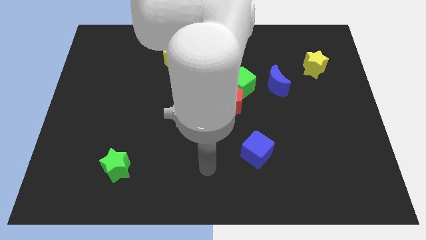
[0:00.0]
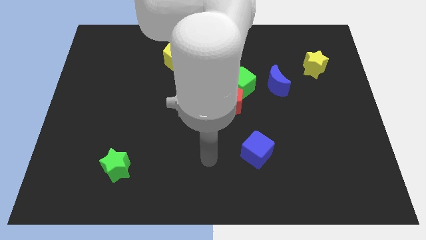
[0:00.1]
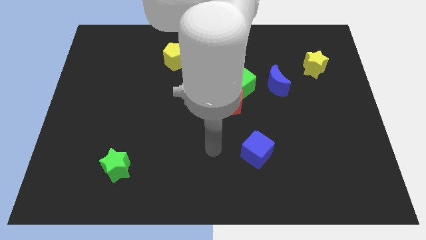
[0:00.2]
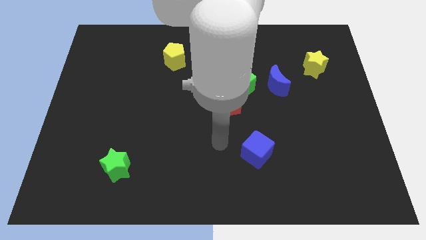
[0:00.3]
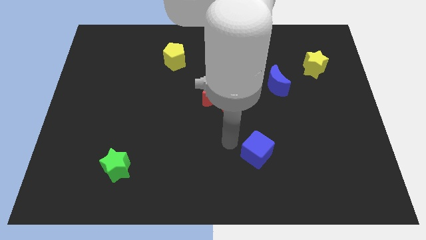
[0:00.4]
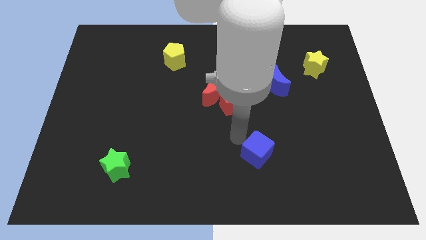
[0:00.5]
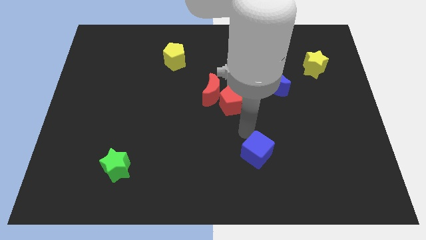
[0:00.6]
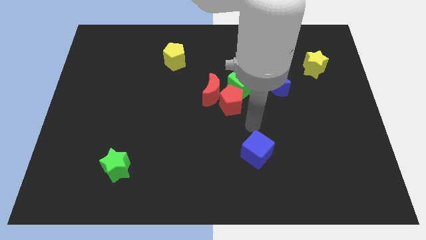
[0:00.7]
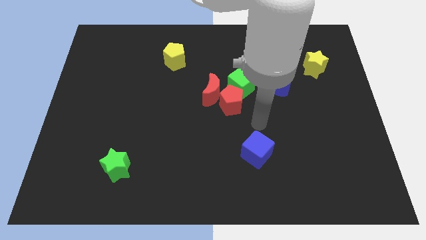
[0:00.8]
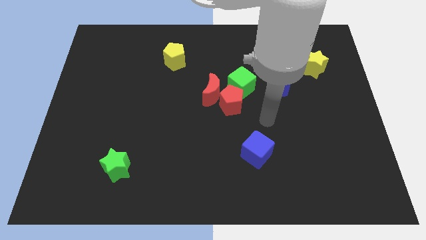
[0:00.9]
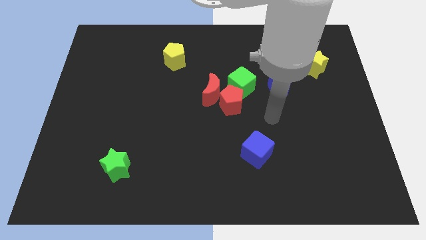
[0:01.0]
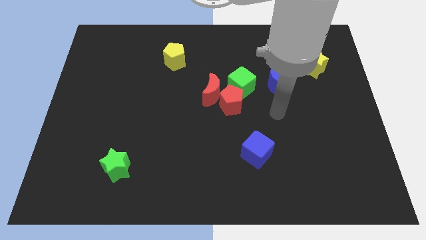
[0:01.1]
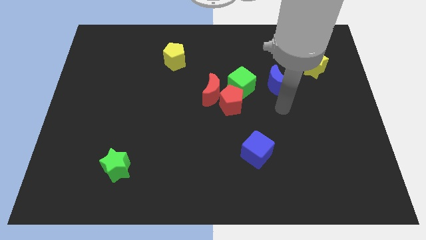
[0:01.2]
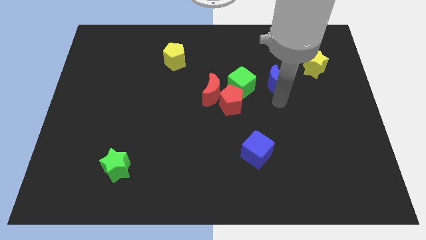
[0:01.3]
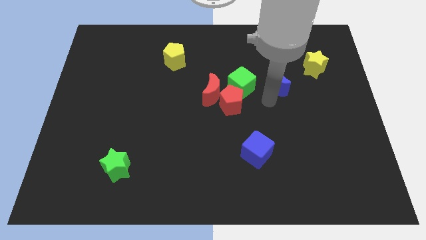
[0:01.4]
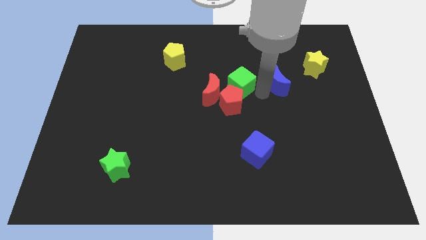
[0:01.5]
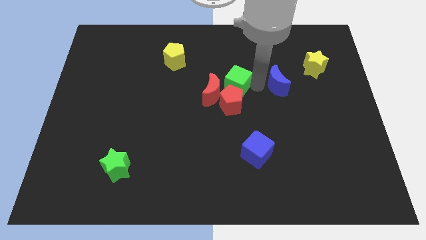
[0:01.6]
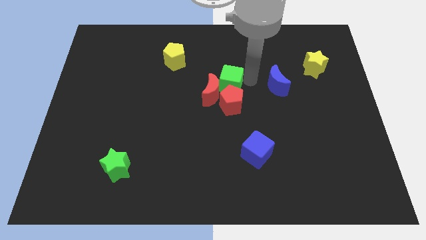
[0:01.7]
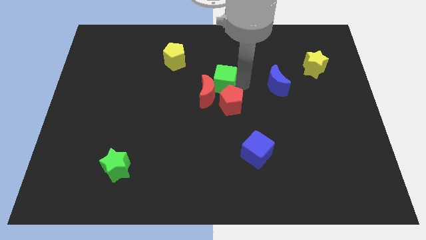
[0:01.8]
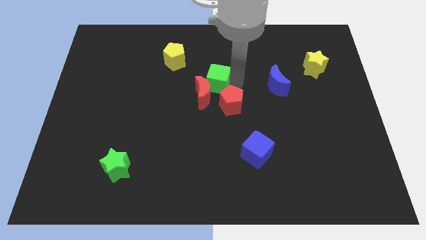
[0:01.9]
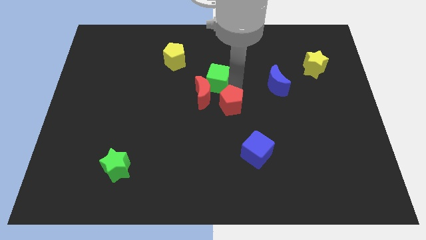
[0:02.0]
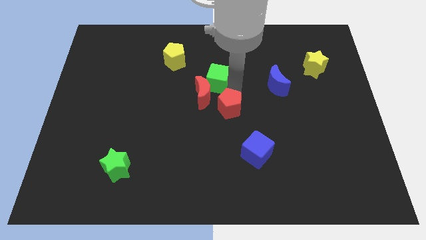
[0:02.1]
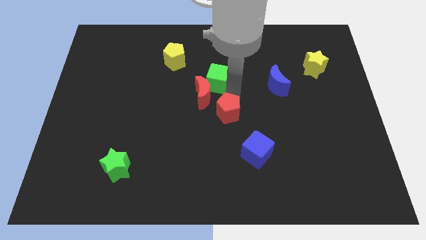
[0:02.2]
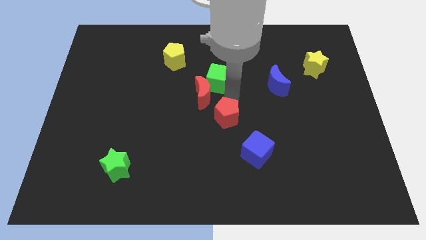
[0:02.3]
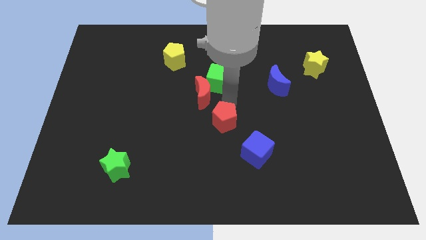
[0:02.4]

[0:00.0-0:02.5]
separate the red pentagon from the red moon and green cube

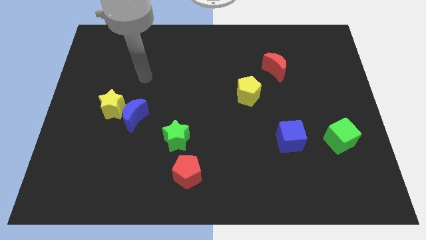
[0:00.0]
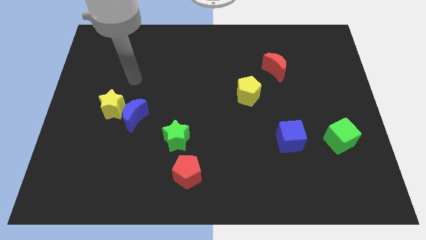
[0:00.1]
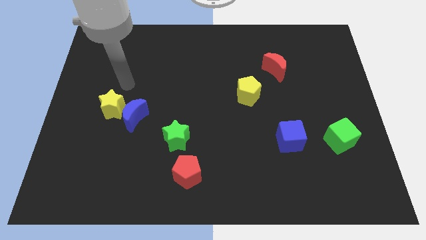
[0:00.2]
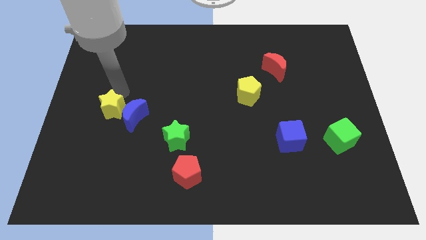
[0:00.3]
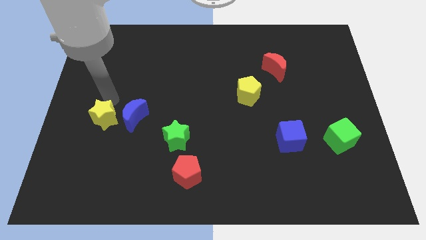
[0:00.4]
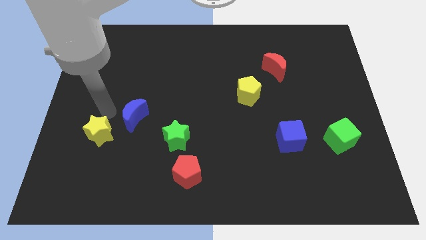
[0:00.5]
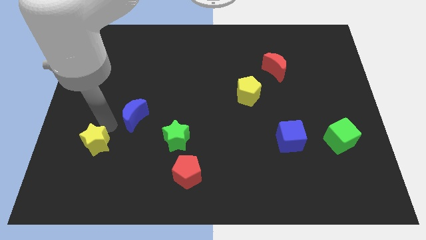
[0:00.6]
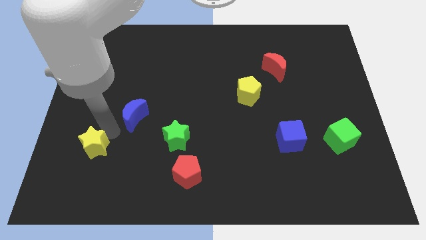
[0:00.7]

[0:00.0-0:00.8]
pull the blue moon apart from the yellow star

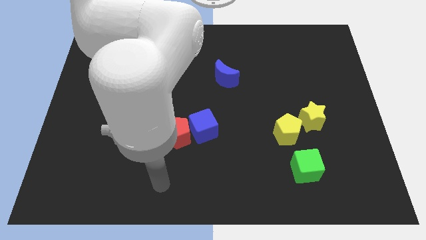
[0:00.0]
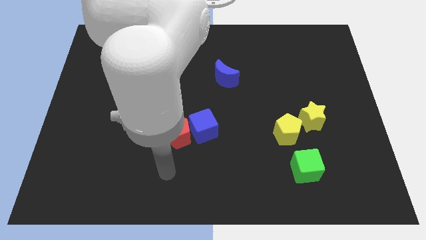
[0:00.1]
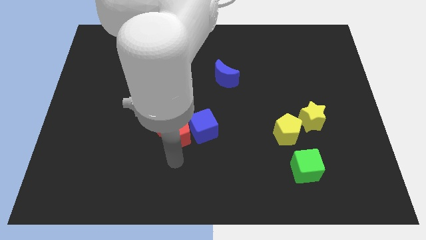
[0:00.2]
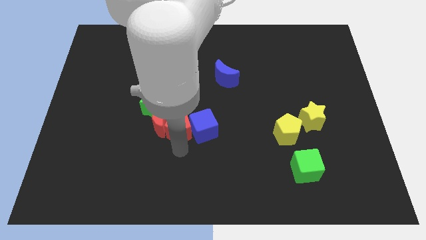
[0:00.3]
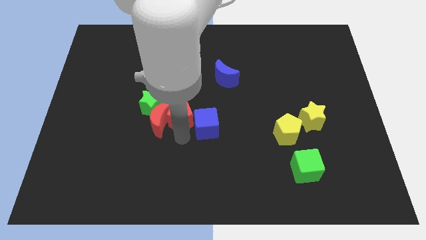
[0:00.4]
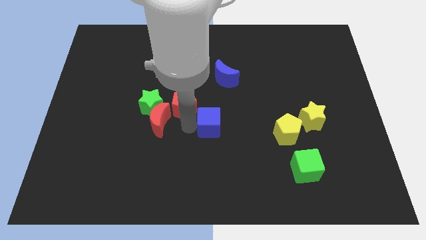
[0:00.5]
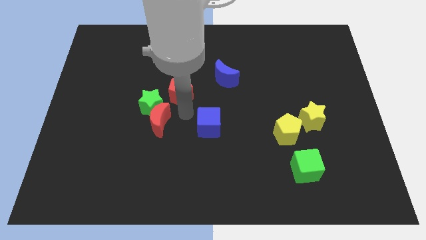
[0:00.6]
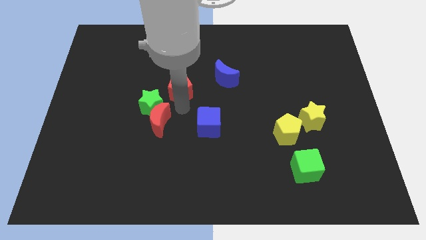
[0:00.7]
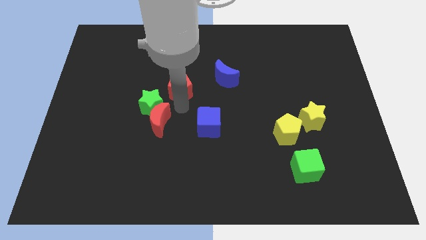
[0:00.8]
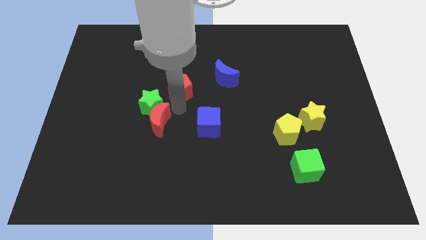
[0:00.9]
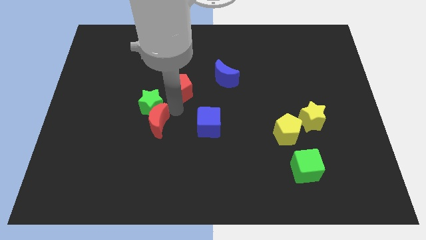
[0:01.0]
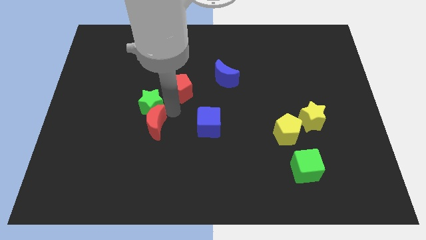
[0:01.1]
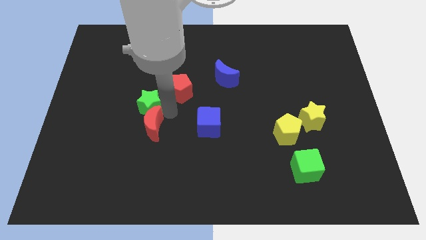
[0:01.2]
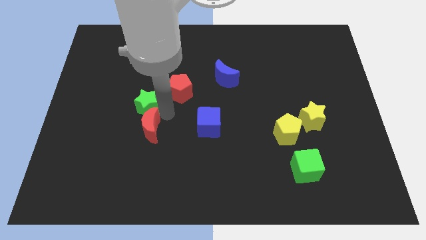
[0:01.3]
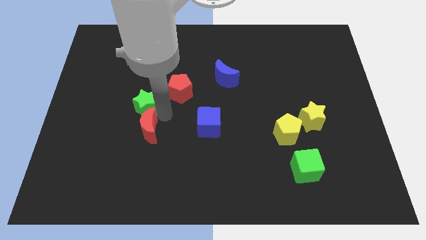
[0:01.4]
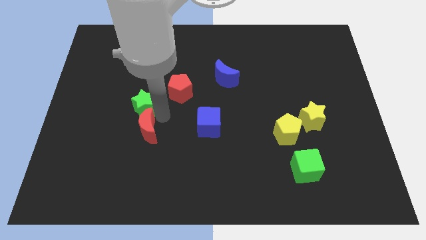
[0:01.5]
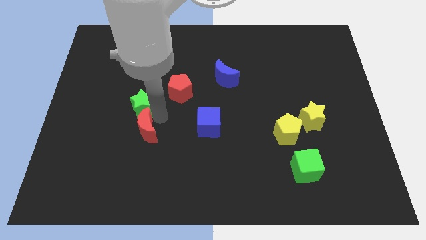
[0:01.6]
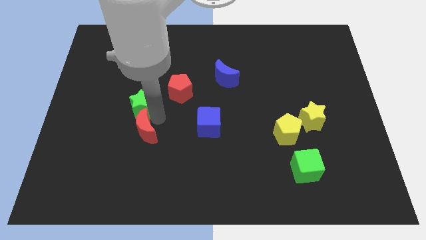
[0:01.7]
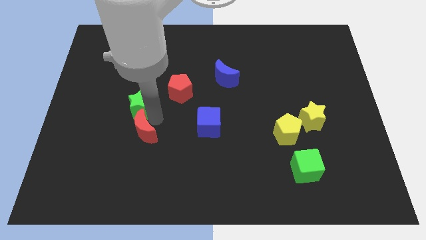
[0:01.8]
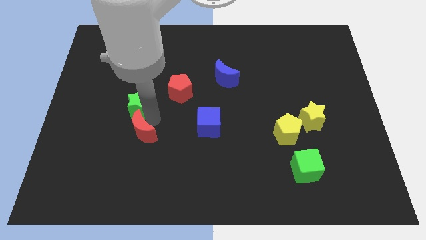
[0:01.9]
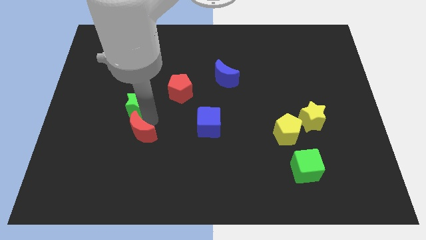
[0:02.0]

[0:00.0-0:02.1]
move the red moon away from the green star, red pentagon, and blue cube

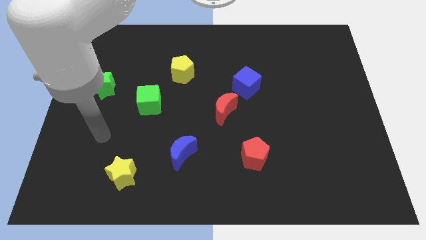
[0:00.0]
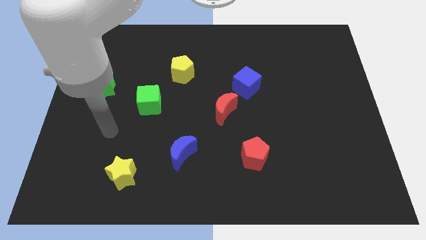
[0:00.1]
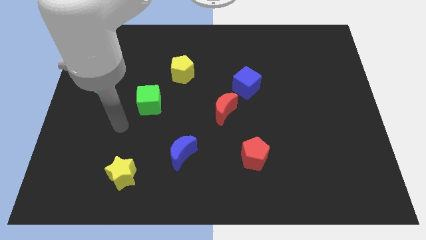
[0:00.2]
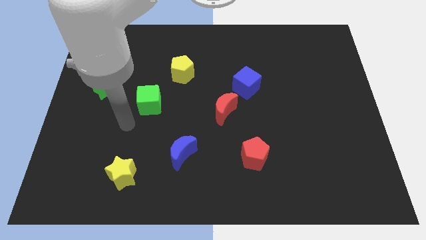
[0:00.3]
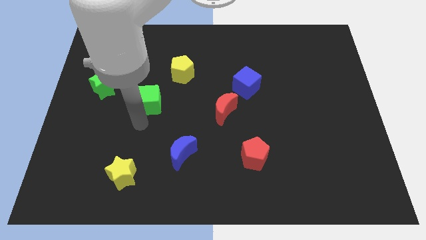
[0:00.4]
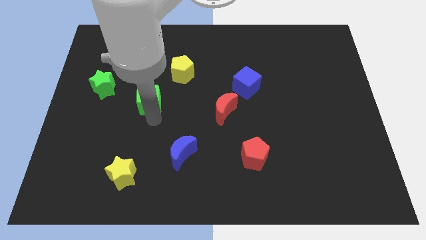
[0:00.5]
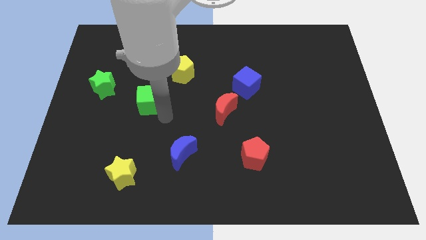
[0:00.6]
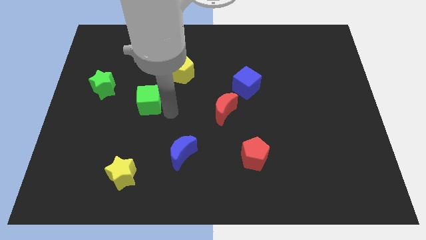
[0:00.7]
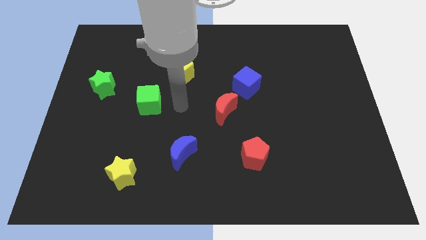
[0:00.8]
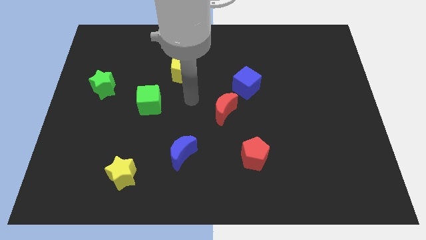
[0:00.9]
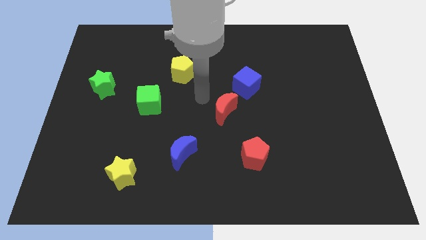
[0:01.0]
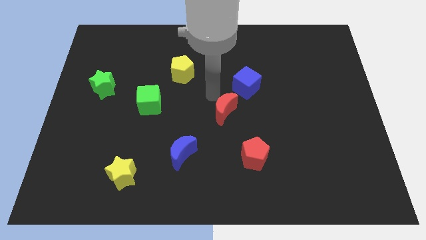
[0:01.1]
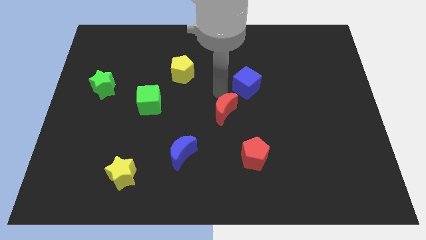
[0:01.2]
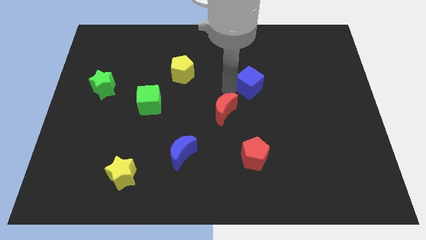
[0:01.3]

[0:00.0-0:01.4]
move the red moon away from the blue cube

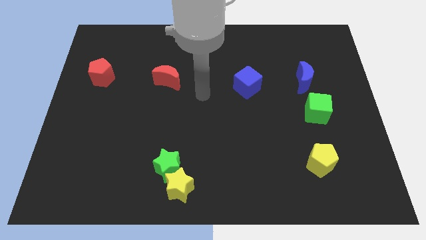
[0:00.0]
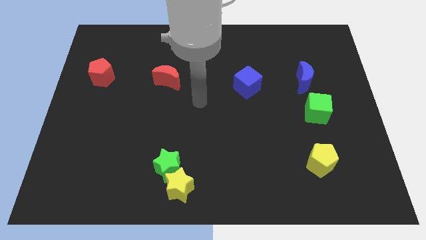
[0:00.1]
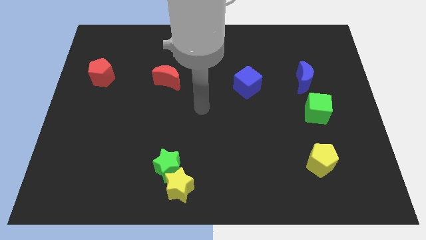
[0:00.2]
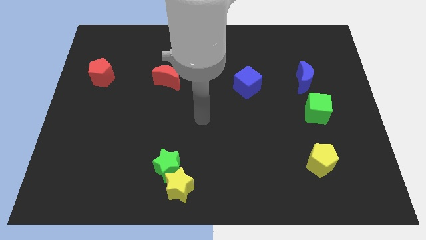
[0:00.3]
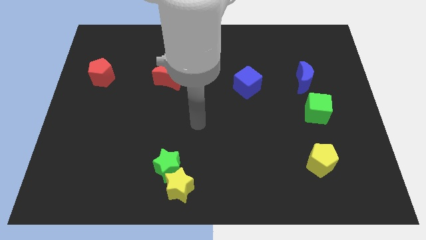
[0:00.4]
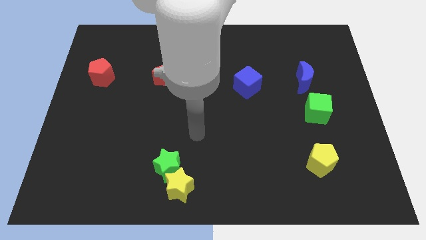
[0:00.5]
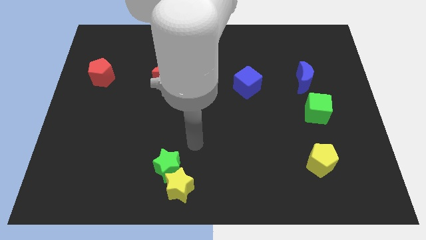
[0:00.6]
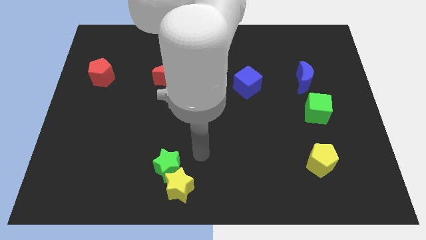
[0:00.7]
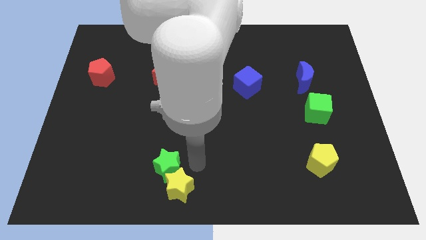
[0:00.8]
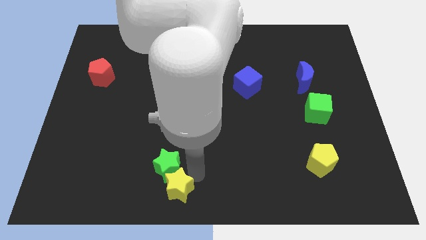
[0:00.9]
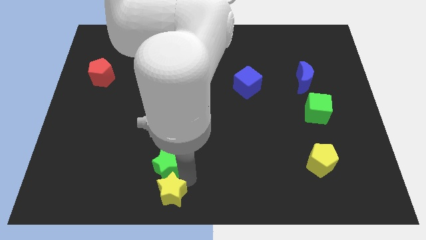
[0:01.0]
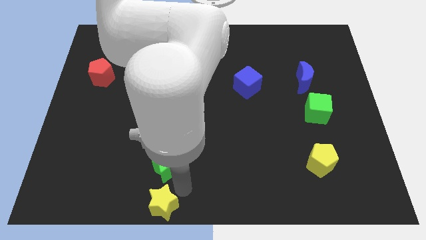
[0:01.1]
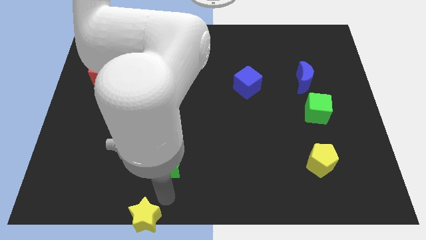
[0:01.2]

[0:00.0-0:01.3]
pull the green star apart from the yellow star

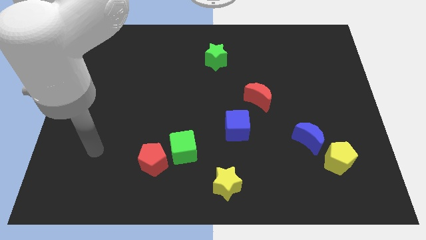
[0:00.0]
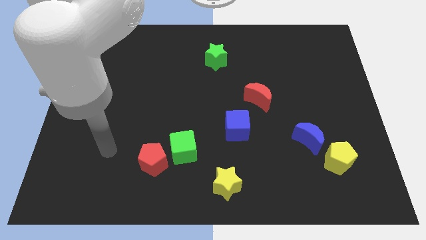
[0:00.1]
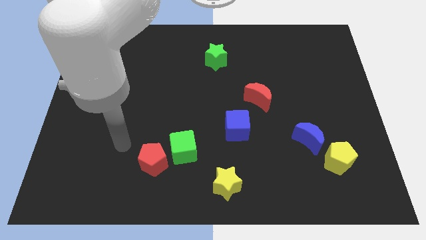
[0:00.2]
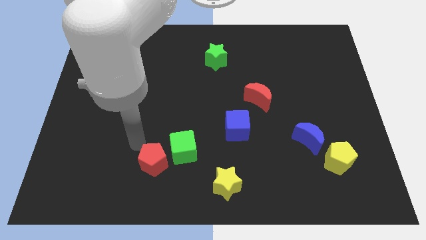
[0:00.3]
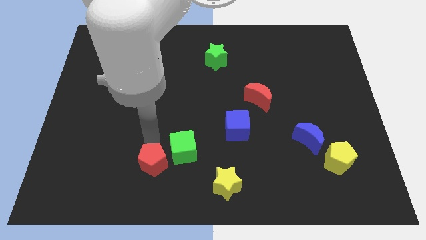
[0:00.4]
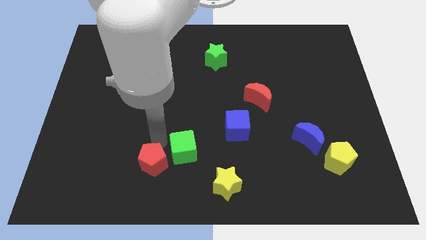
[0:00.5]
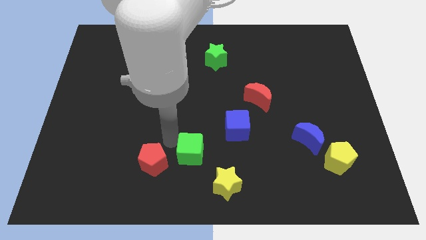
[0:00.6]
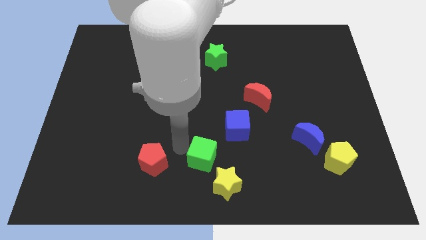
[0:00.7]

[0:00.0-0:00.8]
pull the red pentagon apart from the green cube

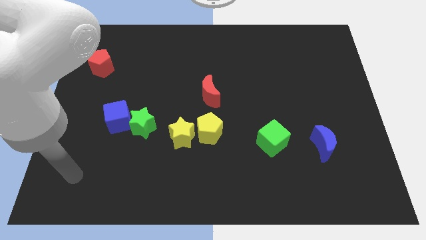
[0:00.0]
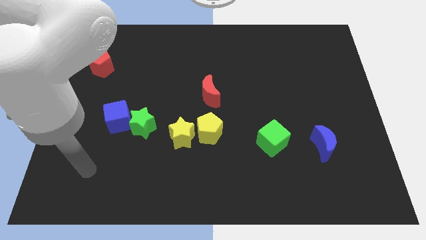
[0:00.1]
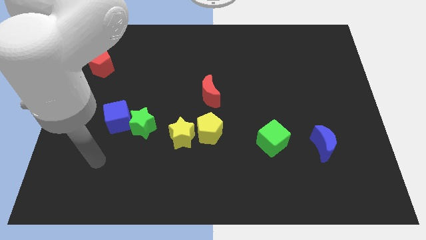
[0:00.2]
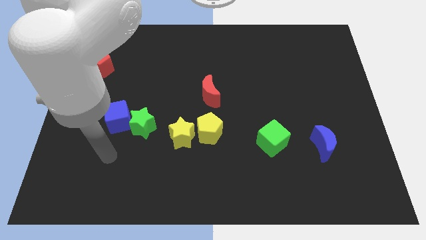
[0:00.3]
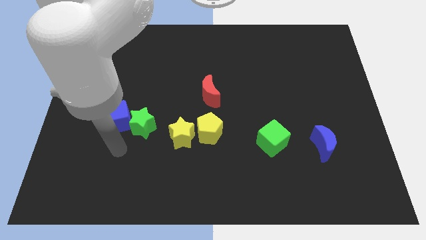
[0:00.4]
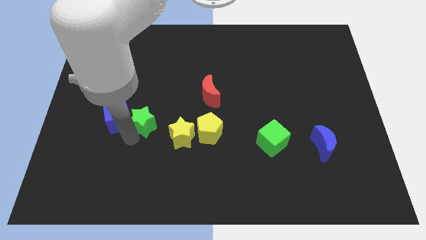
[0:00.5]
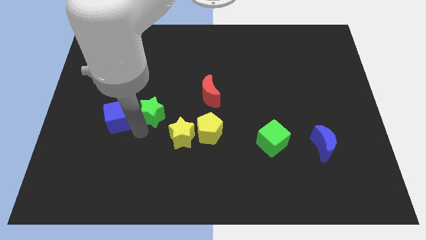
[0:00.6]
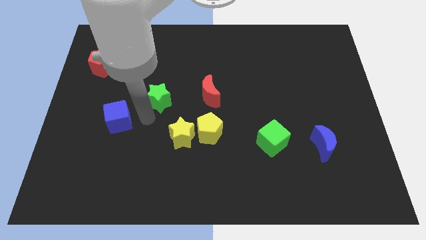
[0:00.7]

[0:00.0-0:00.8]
separate the blue cube from the green star
